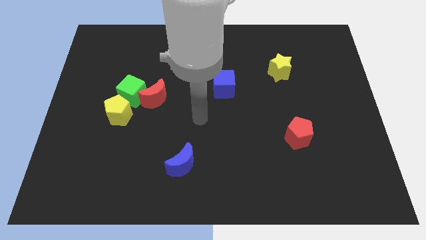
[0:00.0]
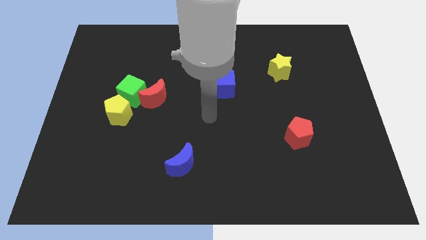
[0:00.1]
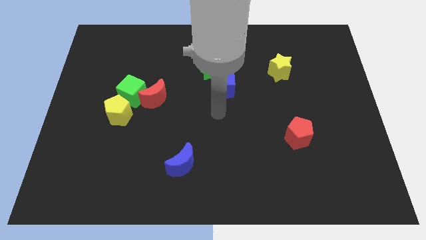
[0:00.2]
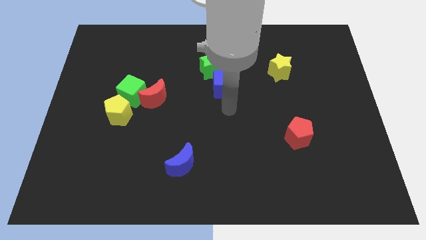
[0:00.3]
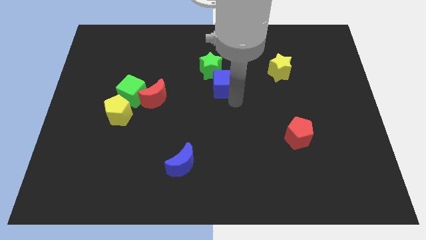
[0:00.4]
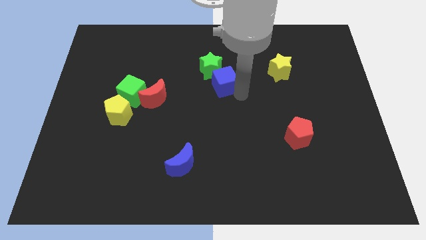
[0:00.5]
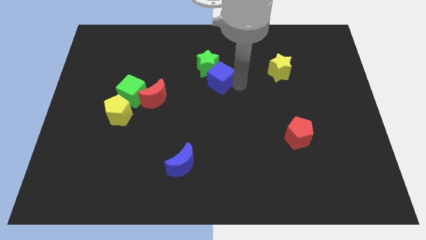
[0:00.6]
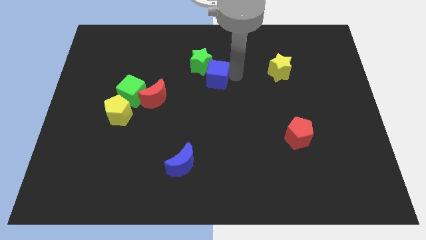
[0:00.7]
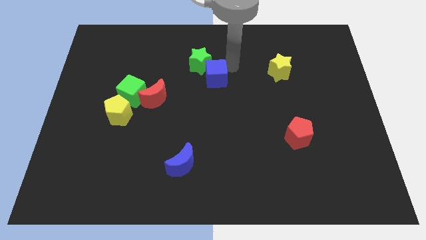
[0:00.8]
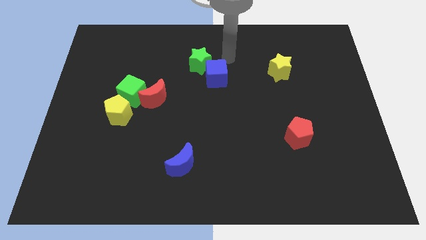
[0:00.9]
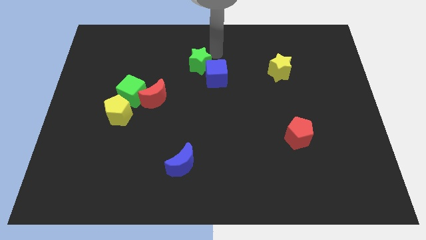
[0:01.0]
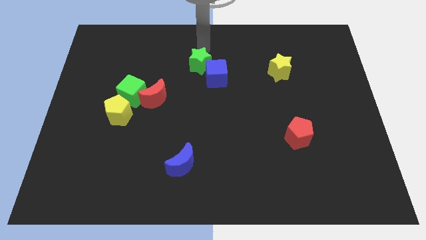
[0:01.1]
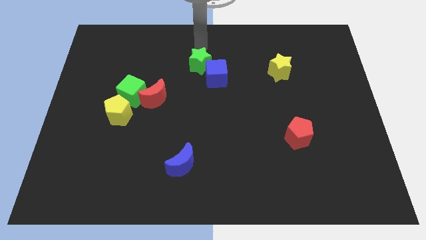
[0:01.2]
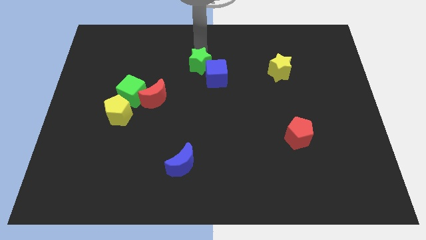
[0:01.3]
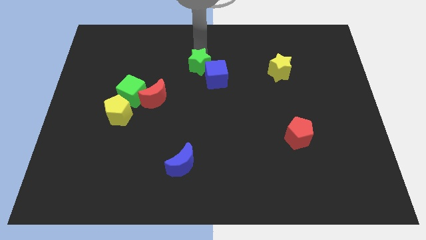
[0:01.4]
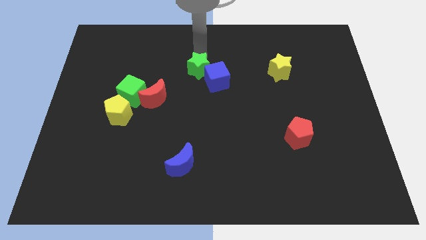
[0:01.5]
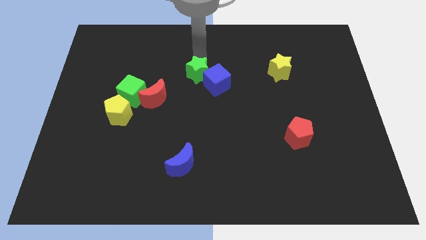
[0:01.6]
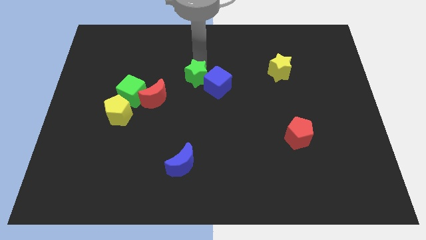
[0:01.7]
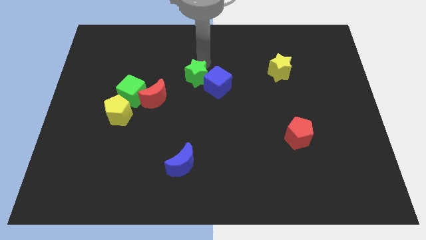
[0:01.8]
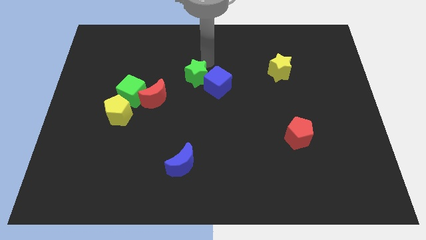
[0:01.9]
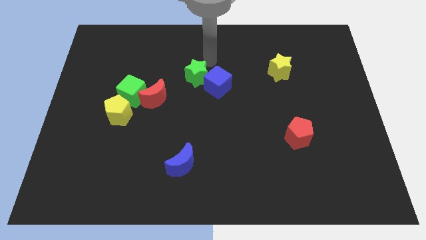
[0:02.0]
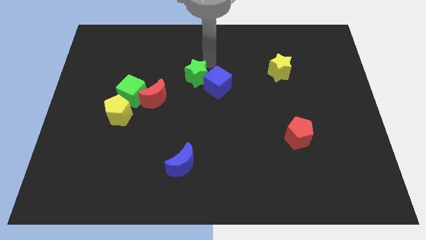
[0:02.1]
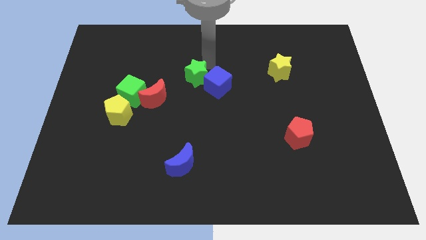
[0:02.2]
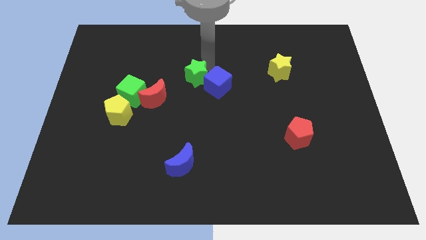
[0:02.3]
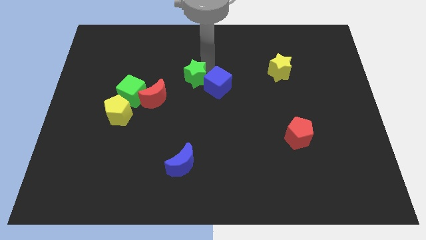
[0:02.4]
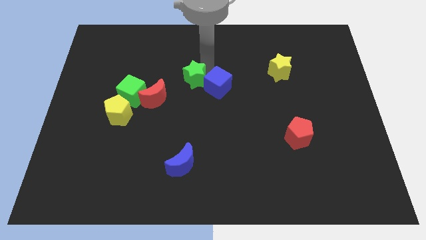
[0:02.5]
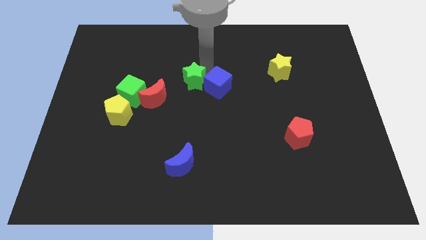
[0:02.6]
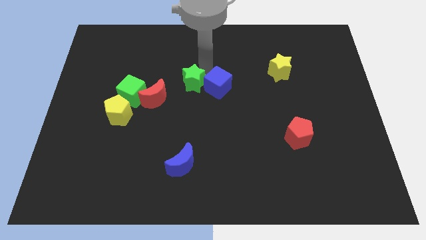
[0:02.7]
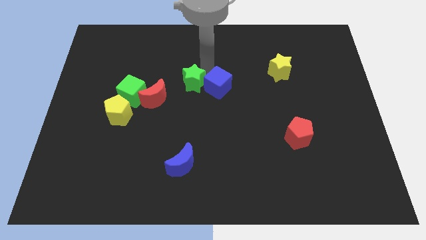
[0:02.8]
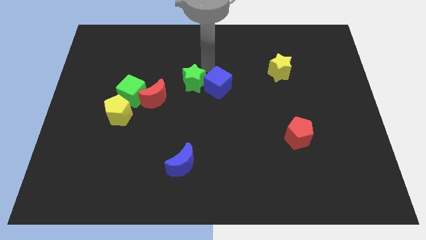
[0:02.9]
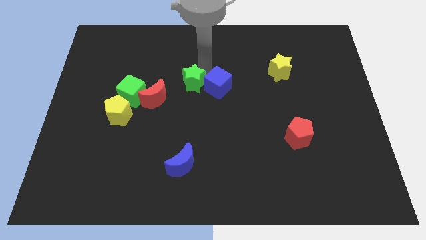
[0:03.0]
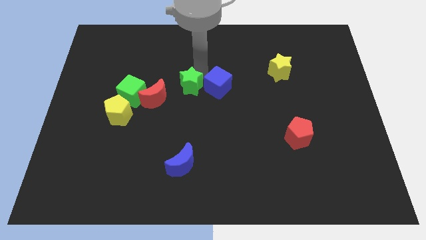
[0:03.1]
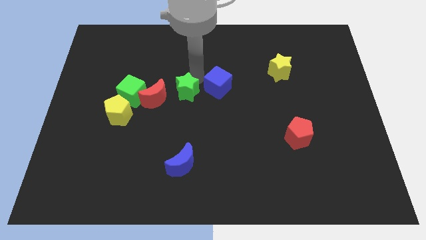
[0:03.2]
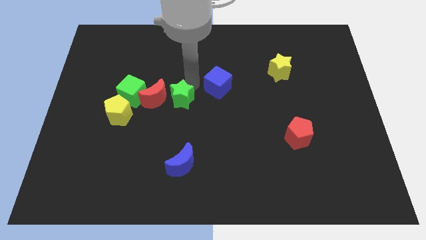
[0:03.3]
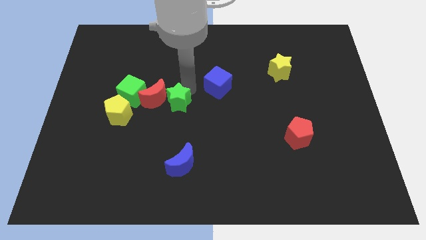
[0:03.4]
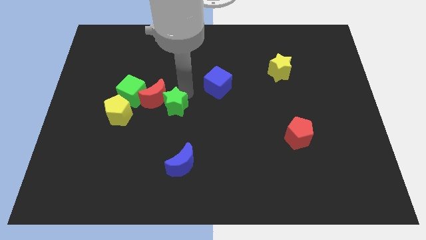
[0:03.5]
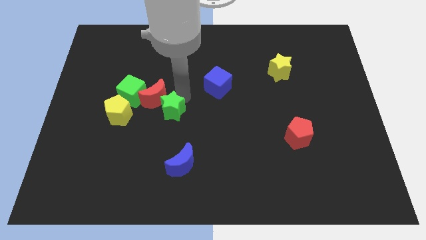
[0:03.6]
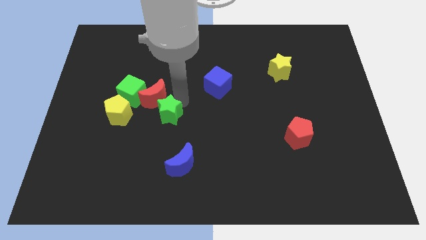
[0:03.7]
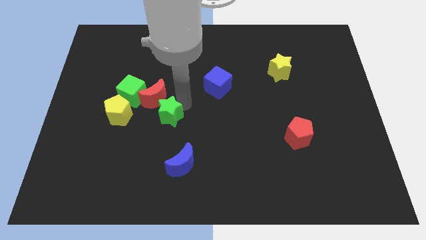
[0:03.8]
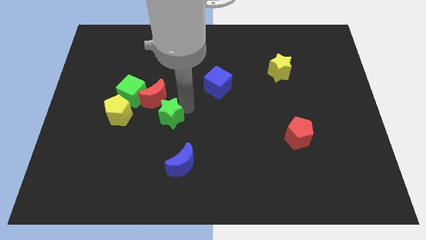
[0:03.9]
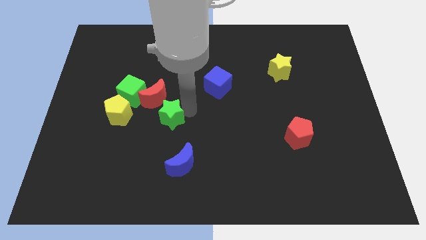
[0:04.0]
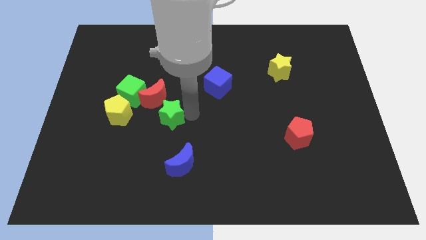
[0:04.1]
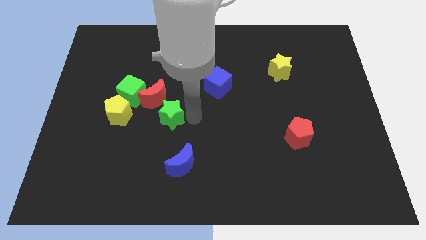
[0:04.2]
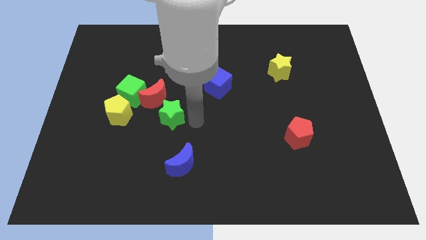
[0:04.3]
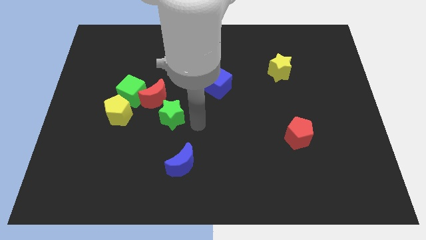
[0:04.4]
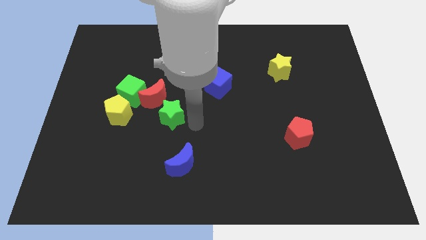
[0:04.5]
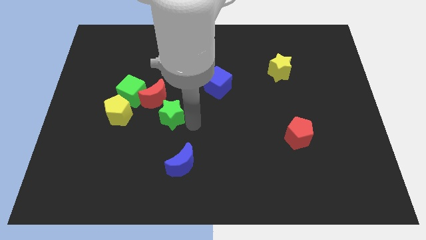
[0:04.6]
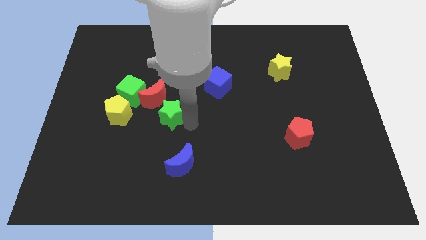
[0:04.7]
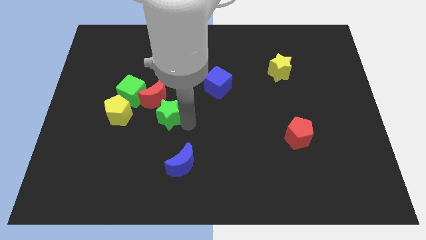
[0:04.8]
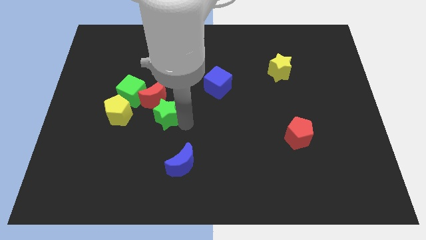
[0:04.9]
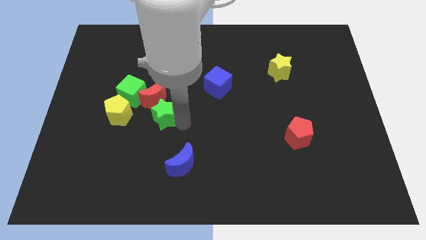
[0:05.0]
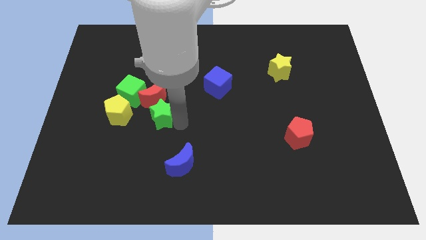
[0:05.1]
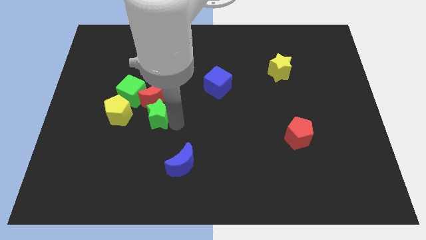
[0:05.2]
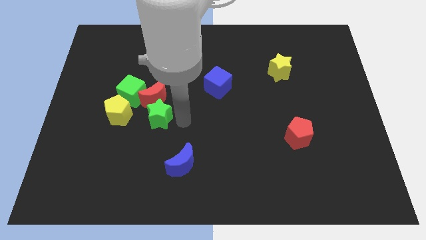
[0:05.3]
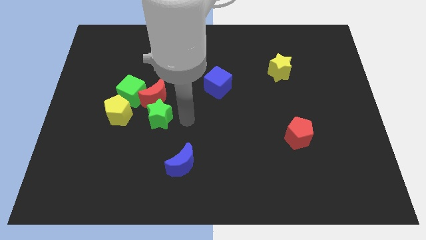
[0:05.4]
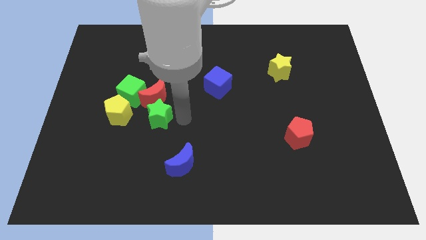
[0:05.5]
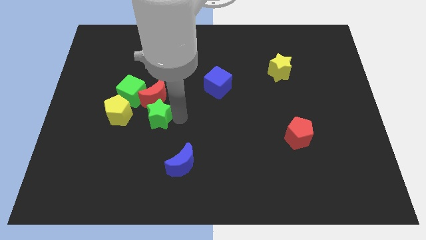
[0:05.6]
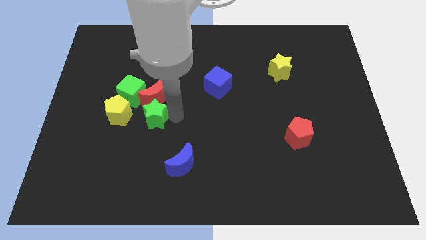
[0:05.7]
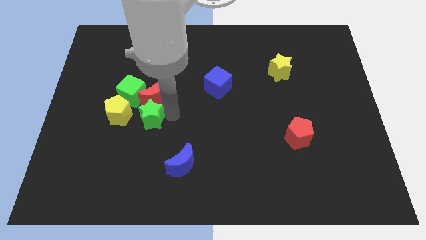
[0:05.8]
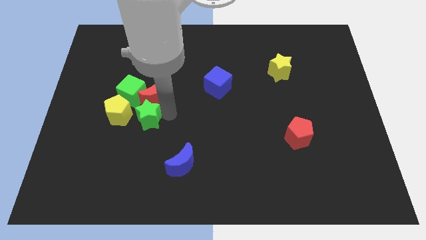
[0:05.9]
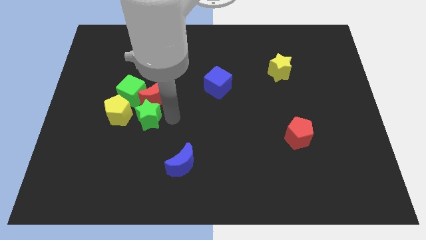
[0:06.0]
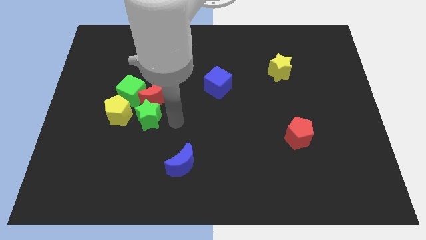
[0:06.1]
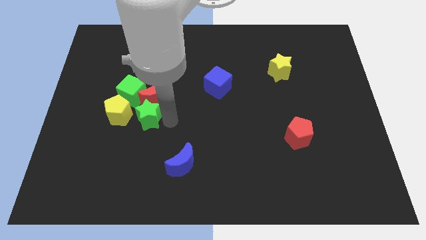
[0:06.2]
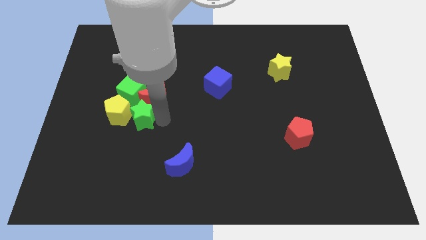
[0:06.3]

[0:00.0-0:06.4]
slide the green star to the yellow pentagon

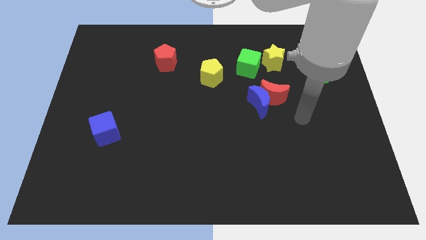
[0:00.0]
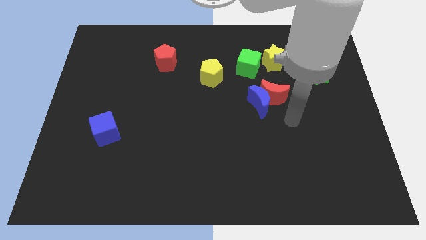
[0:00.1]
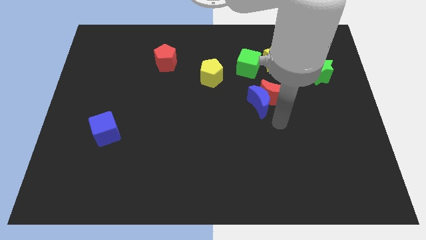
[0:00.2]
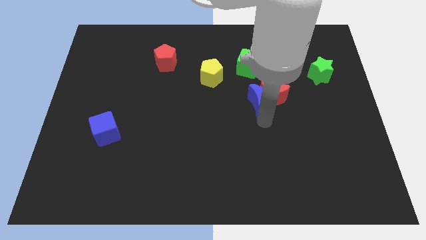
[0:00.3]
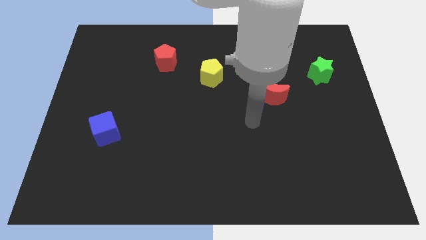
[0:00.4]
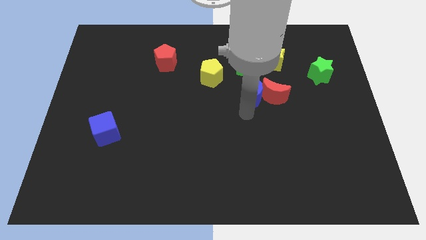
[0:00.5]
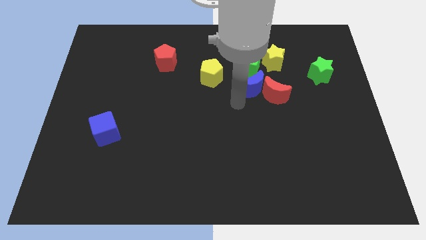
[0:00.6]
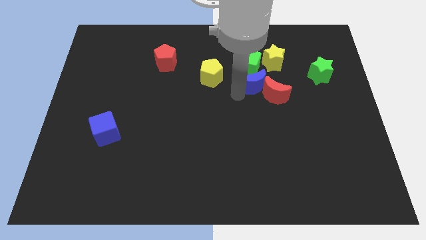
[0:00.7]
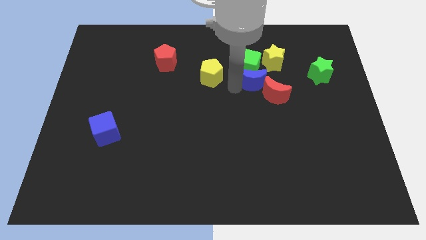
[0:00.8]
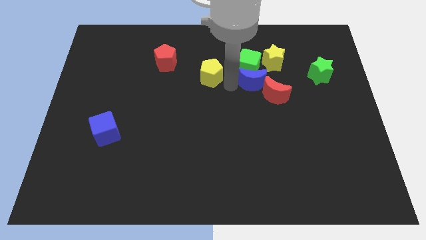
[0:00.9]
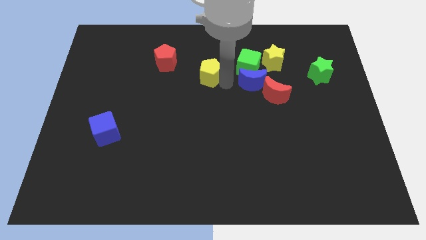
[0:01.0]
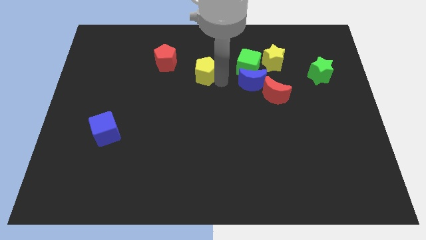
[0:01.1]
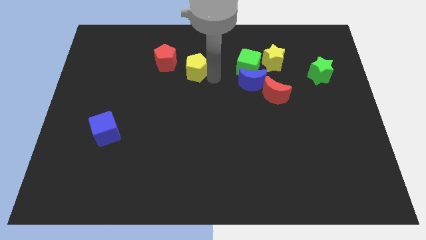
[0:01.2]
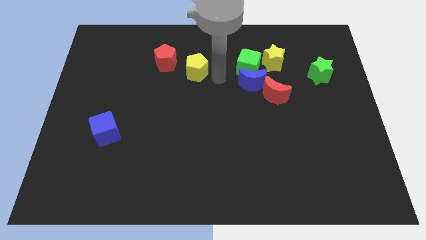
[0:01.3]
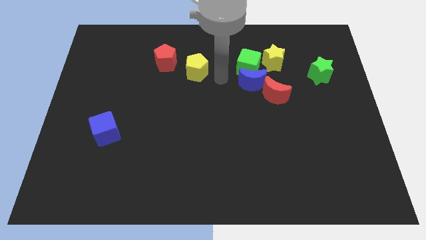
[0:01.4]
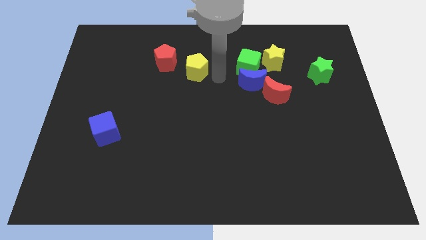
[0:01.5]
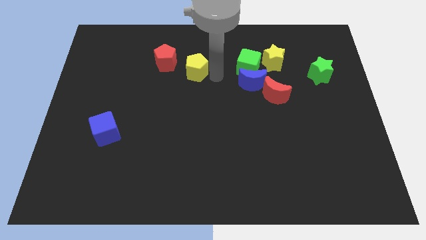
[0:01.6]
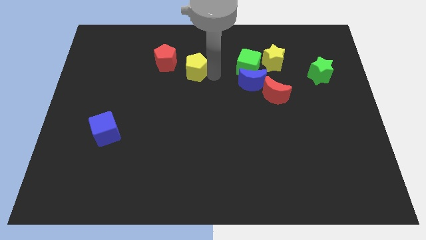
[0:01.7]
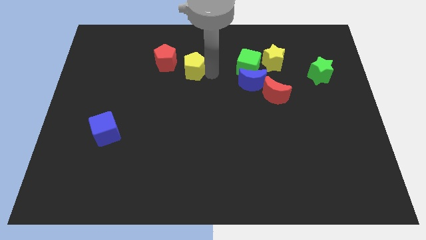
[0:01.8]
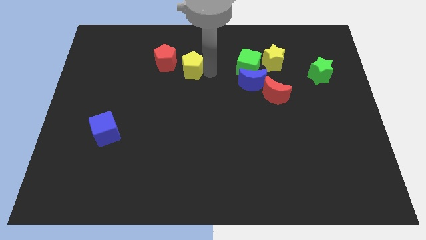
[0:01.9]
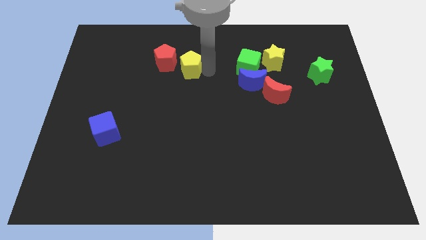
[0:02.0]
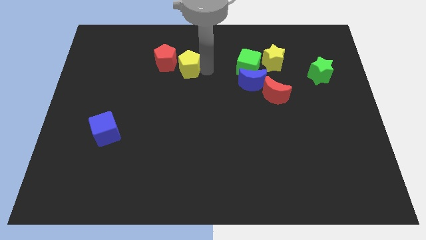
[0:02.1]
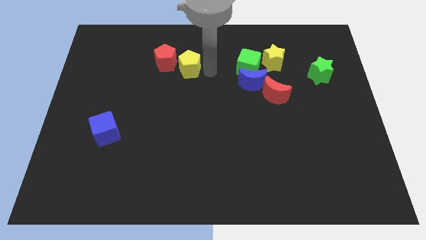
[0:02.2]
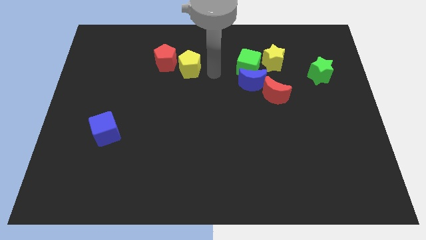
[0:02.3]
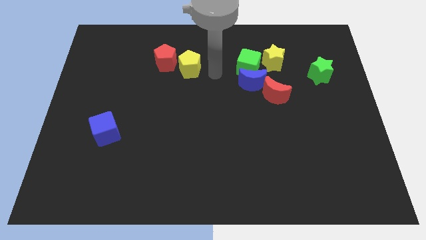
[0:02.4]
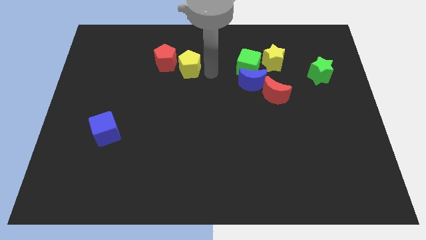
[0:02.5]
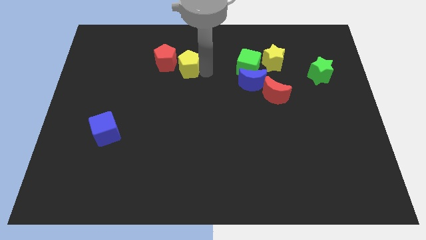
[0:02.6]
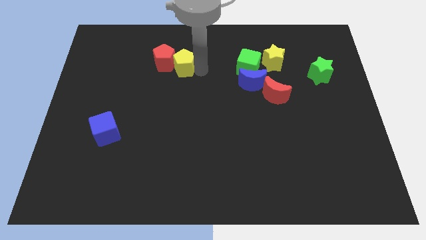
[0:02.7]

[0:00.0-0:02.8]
move the yellow pentagon towards the red pentagon
